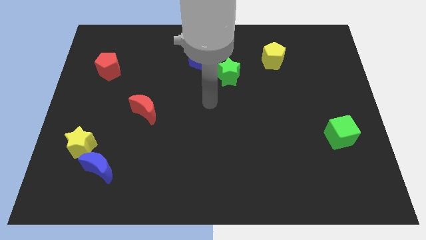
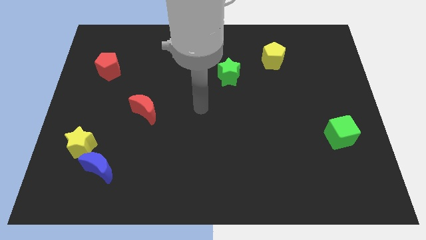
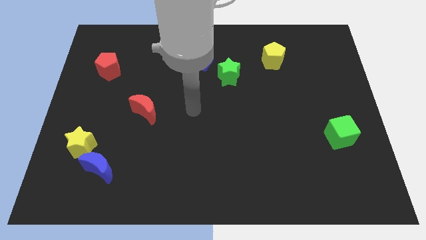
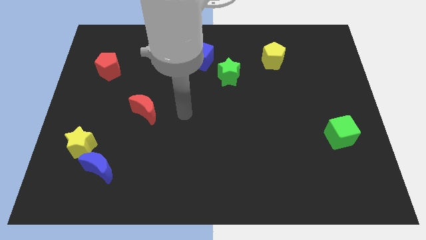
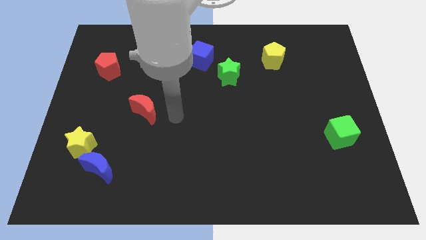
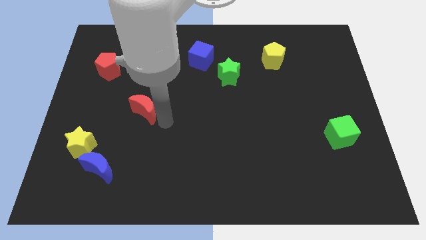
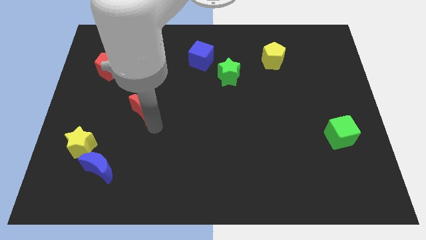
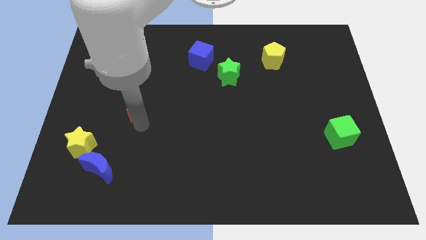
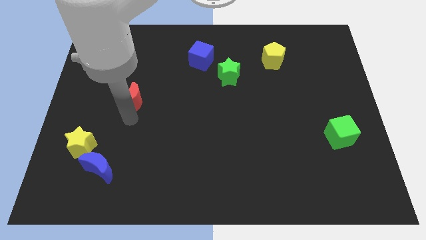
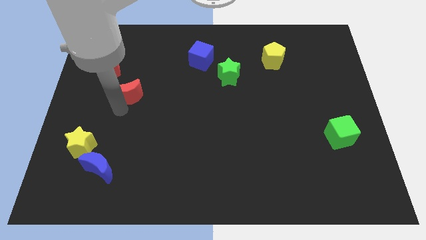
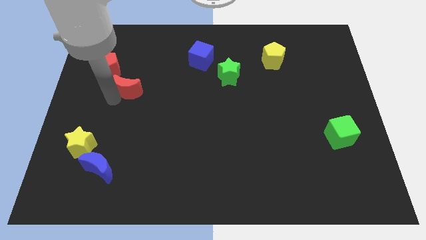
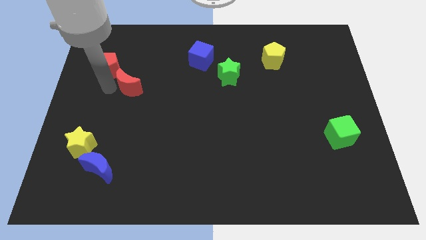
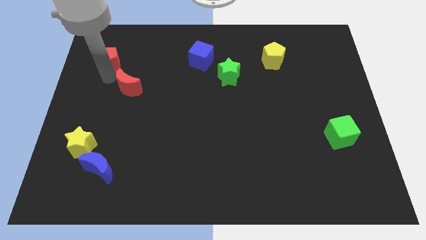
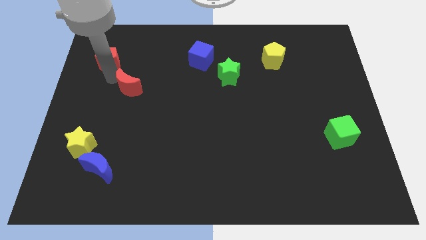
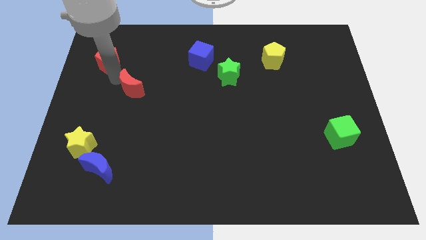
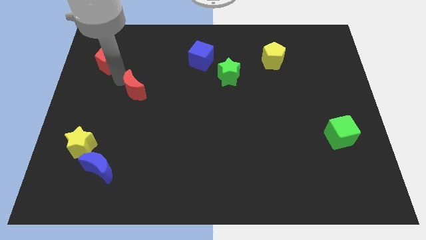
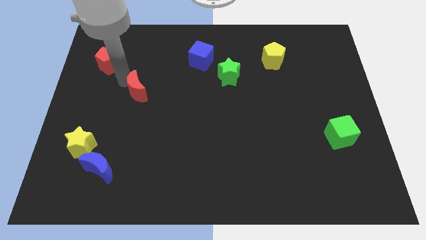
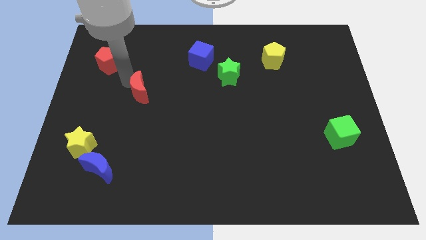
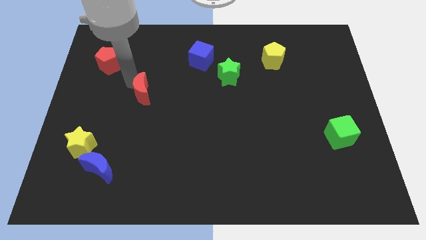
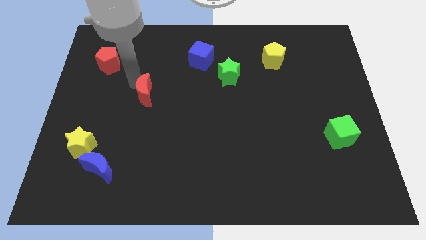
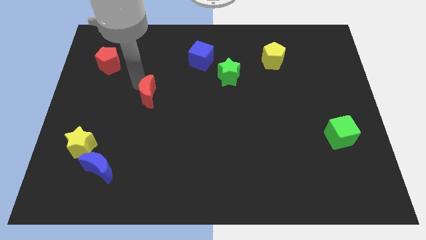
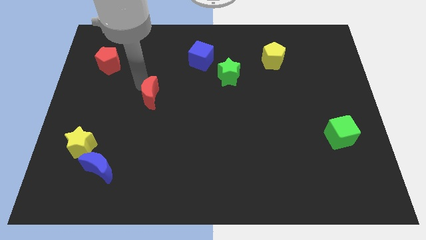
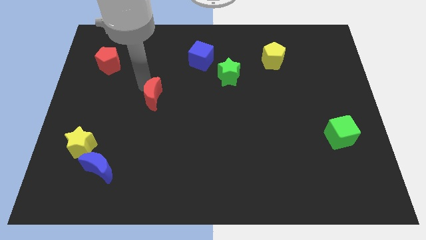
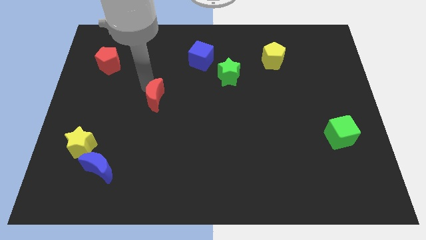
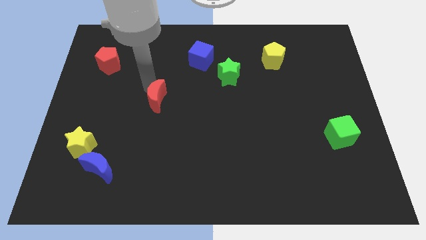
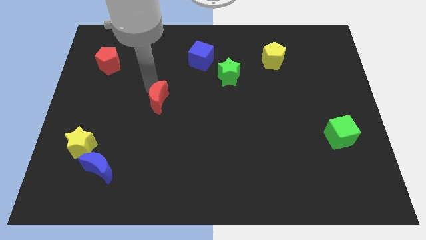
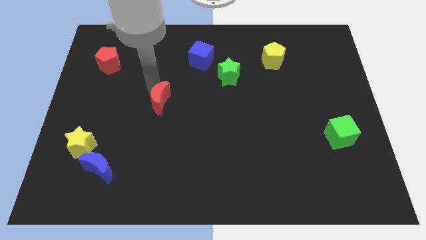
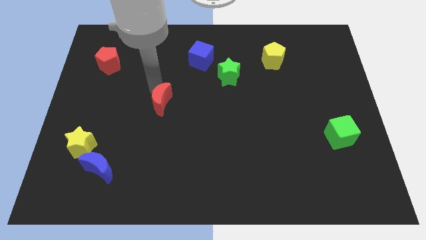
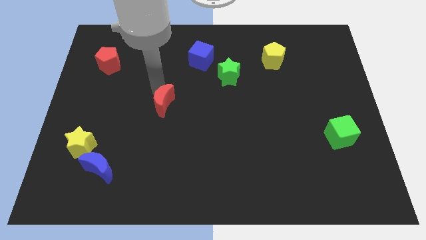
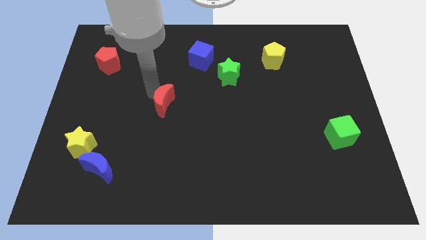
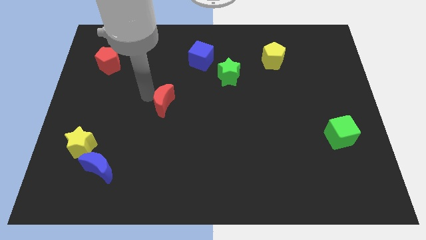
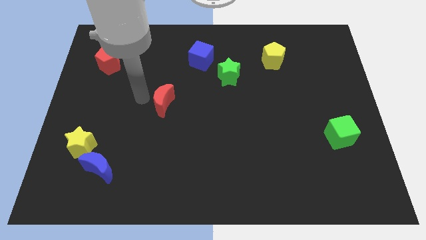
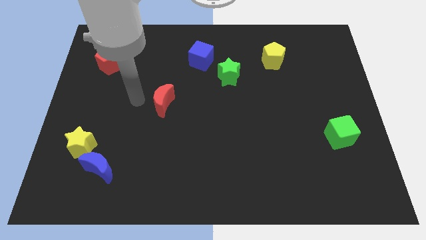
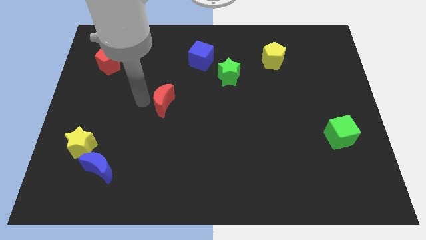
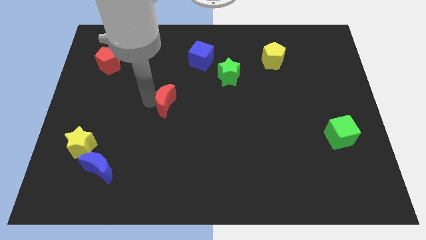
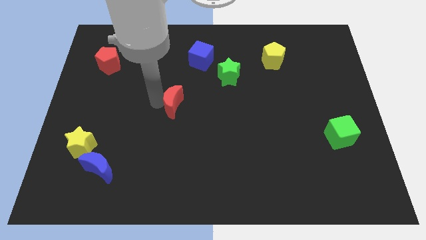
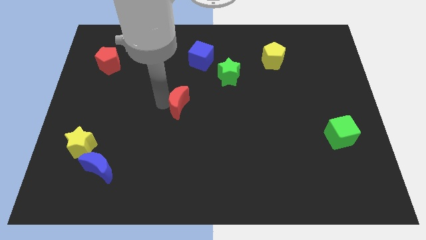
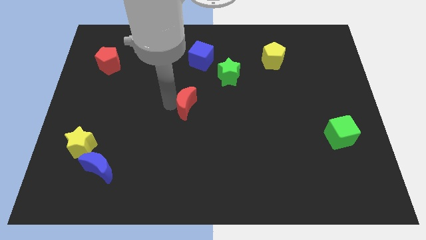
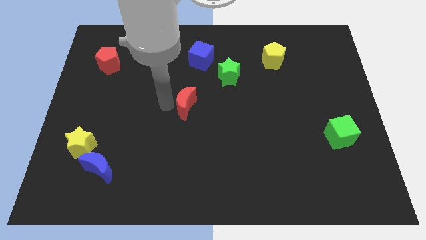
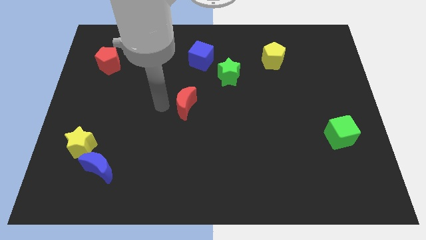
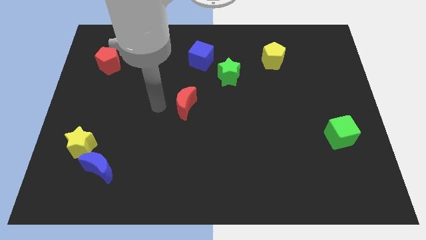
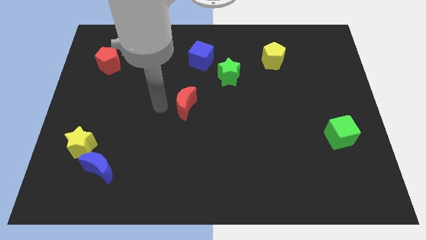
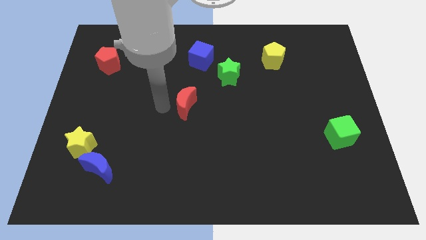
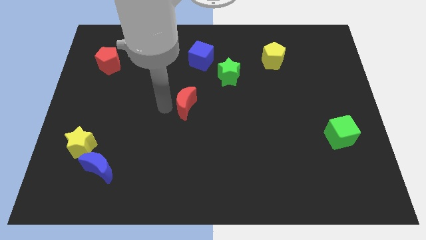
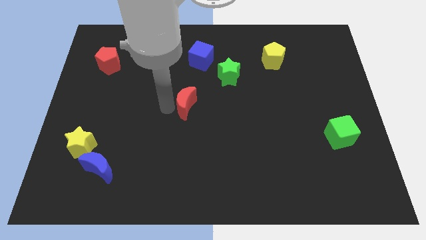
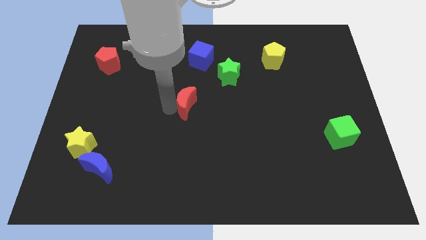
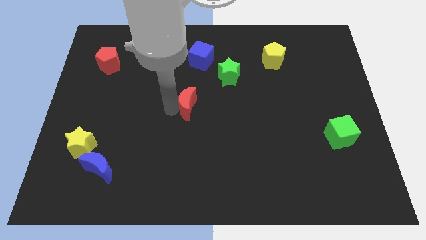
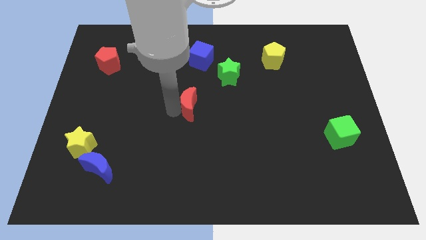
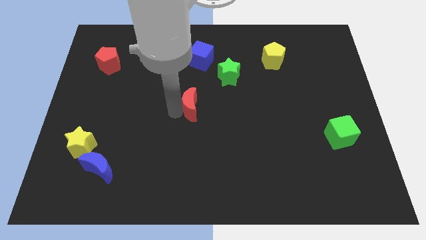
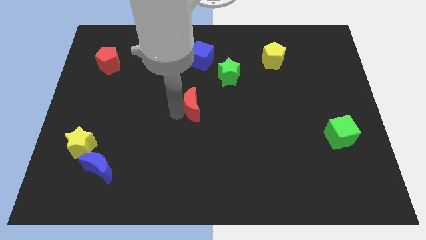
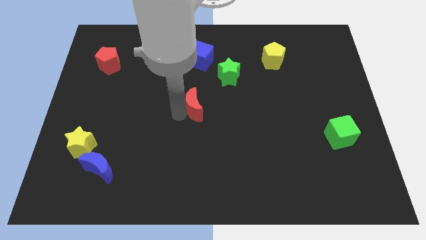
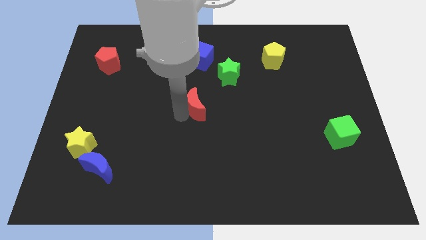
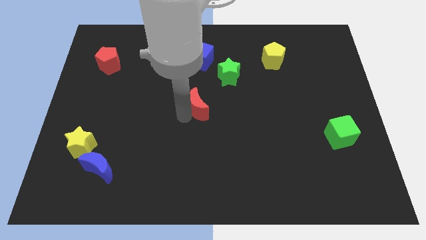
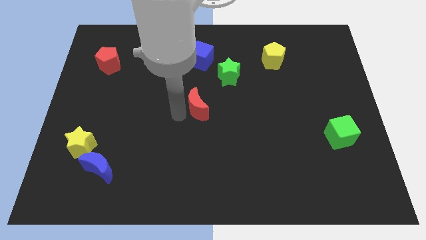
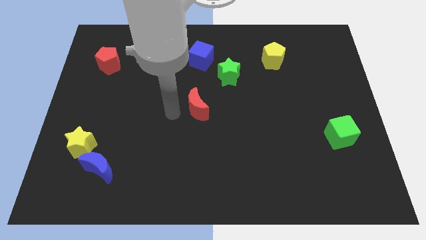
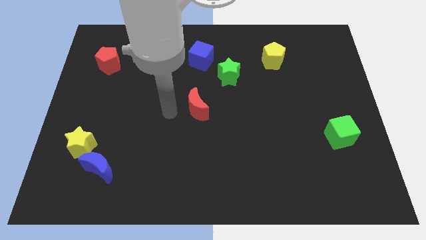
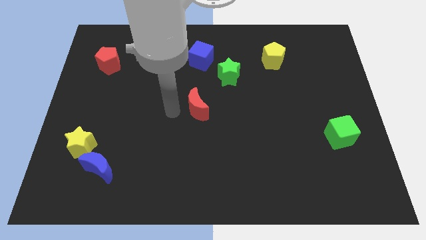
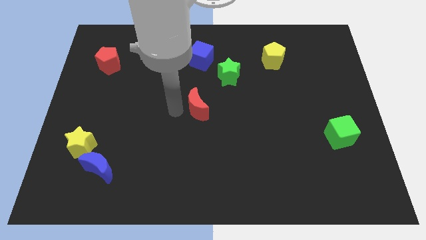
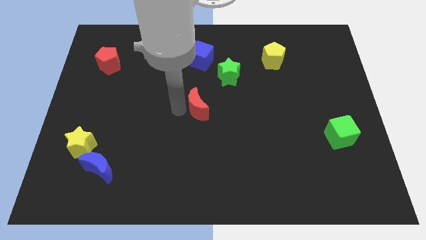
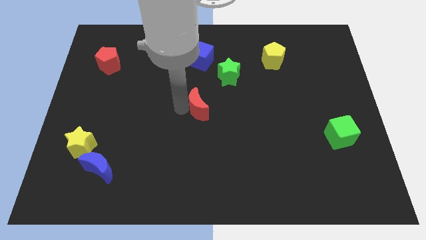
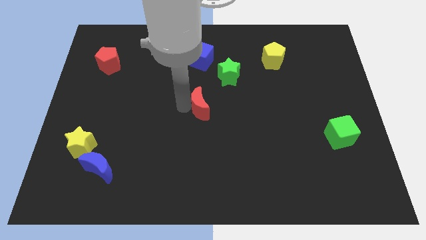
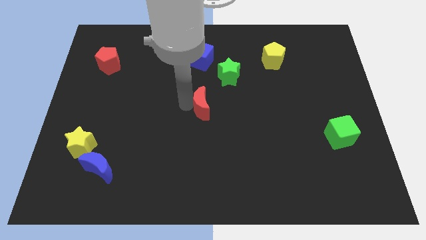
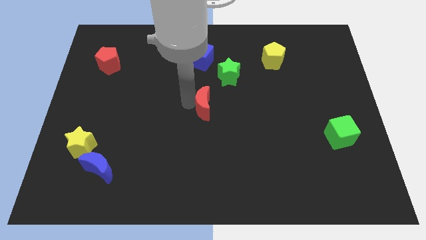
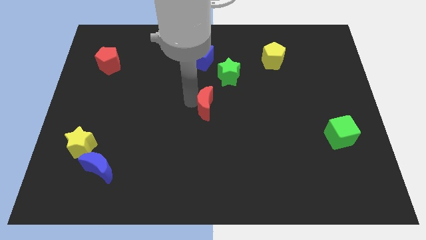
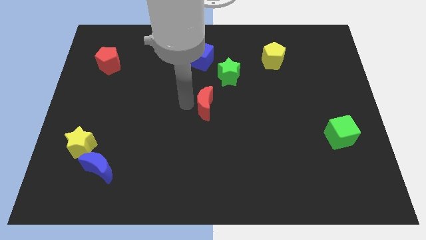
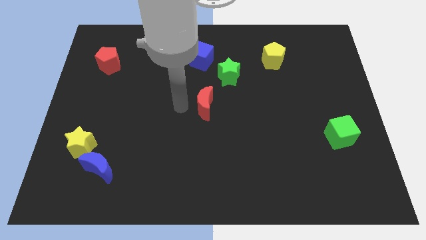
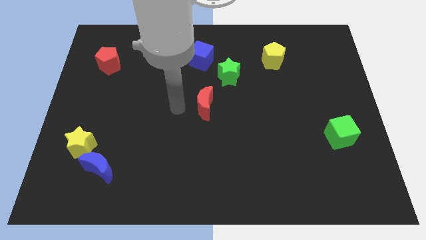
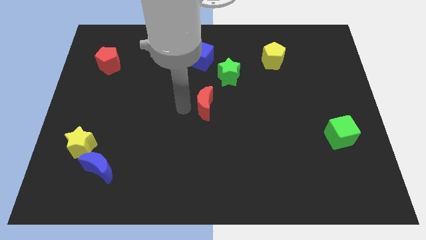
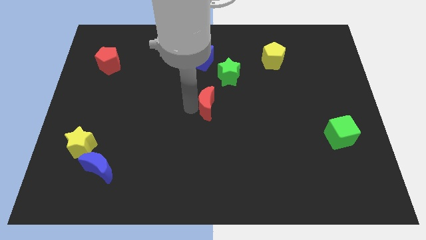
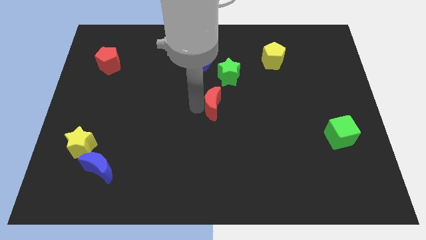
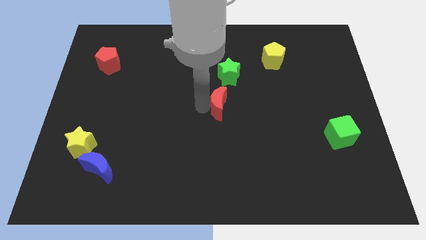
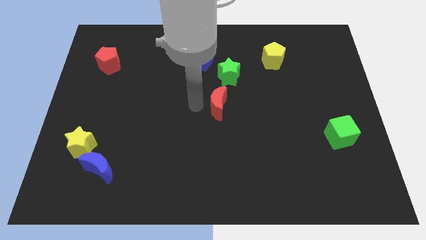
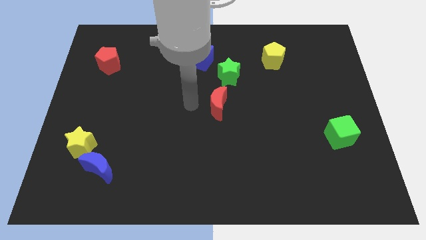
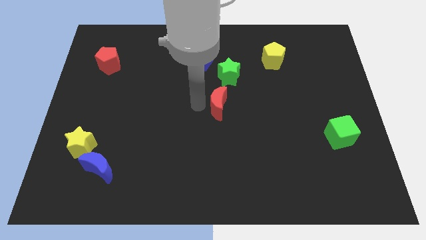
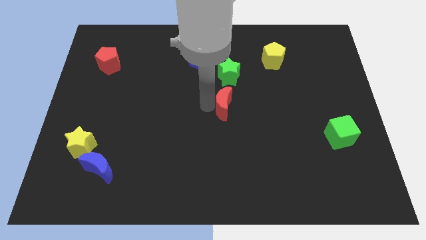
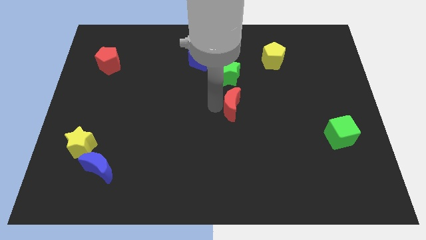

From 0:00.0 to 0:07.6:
slide the red moon right

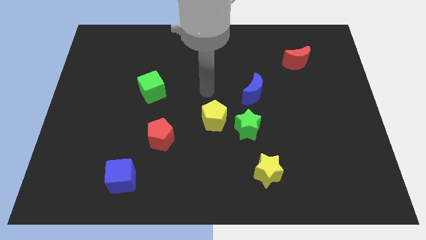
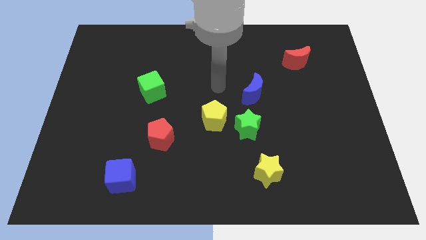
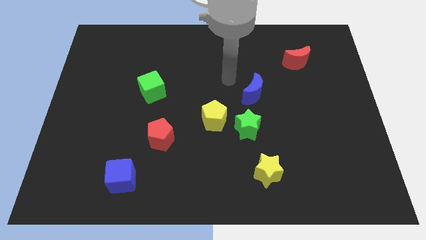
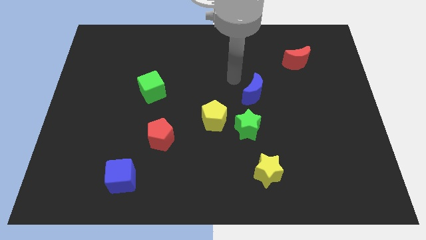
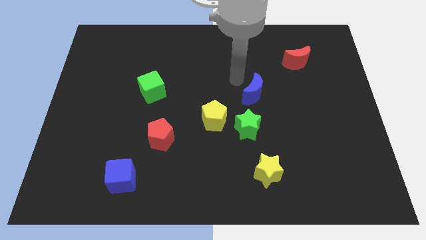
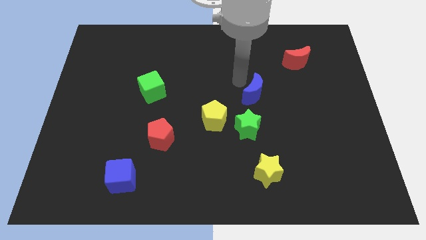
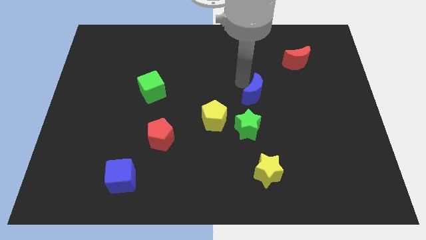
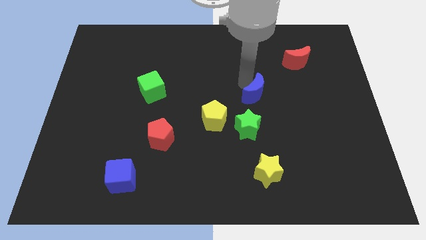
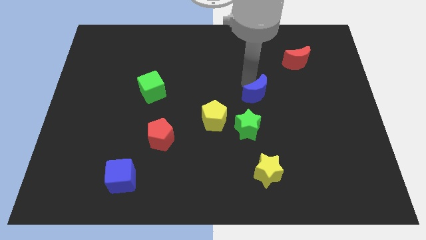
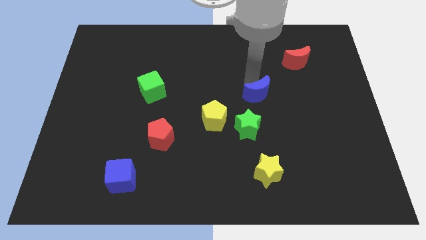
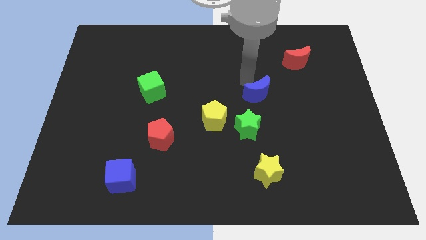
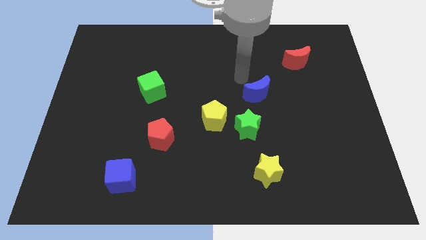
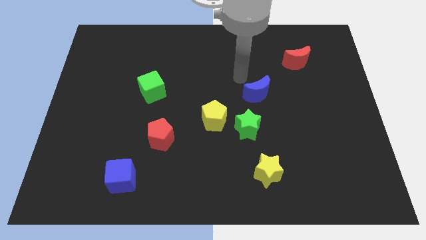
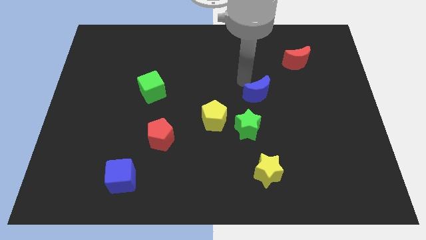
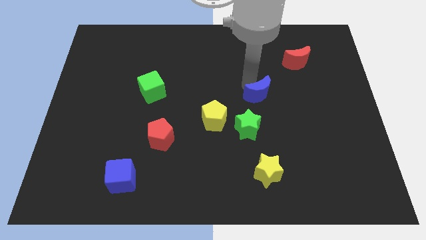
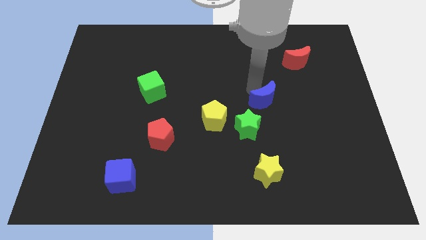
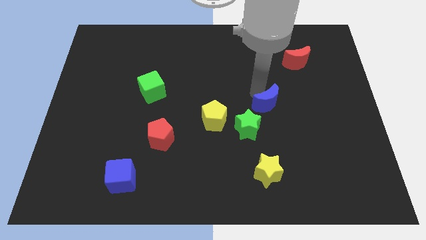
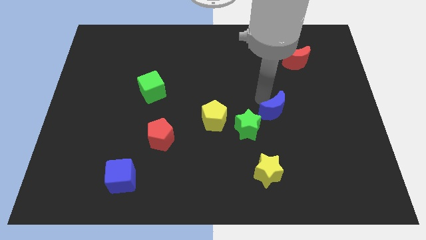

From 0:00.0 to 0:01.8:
slightly move the blue moon down and to the right
